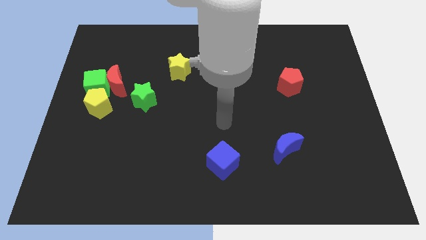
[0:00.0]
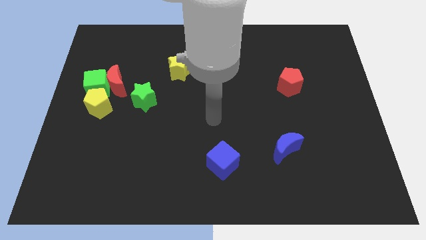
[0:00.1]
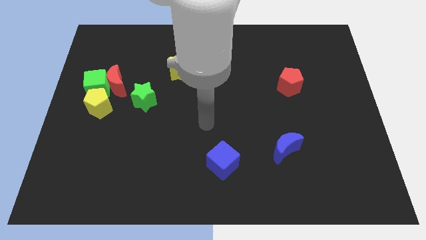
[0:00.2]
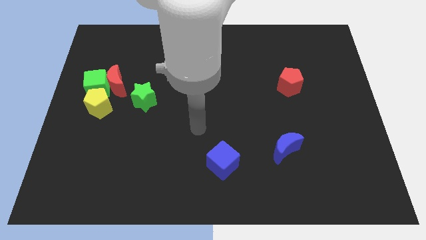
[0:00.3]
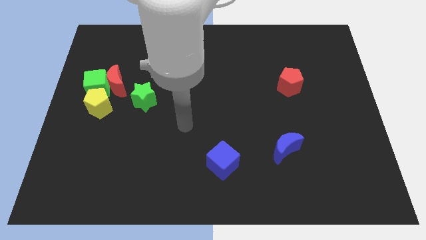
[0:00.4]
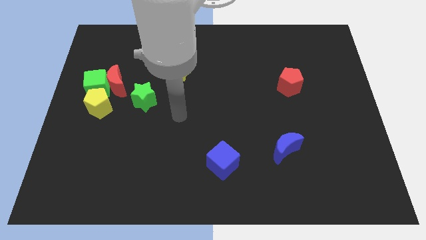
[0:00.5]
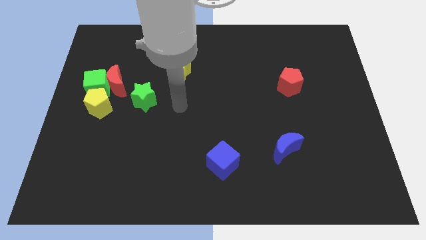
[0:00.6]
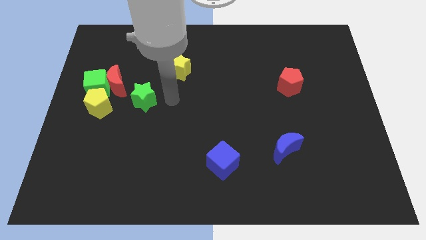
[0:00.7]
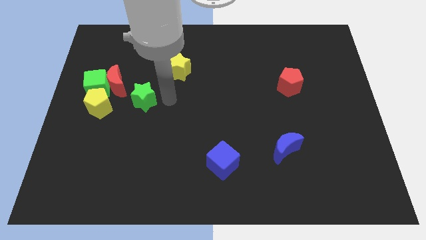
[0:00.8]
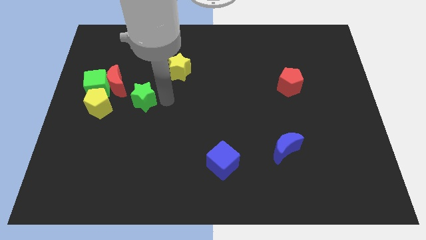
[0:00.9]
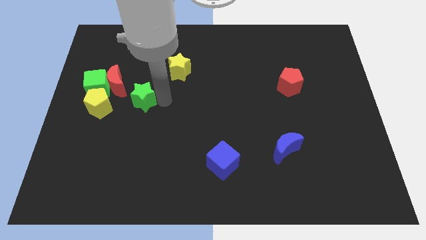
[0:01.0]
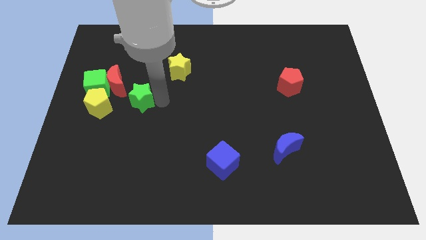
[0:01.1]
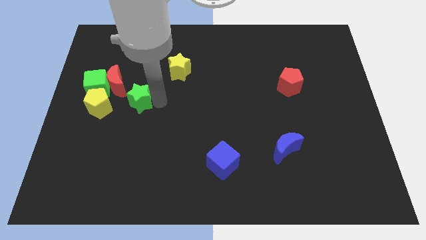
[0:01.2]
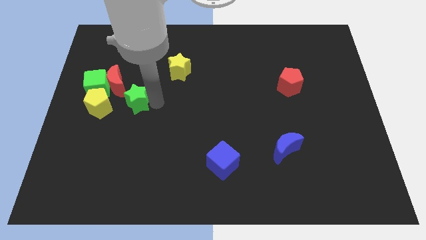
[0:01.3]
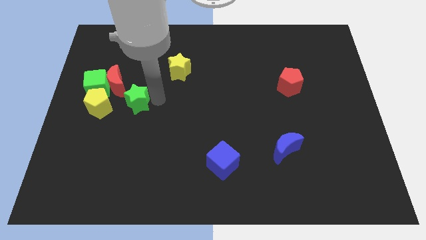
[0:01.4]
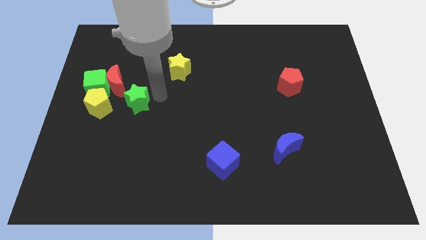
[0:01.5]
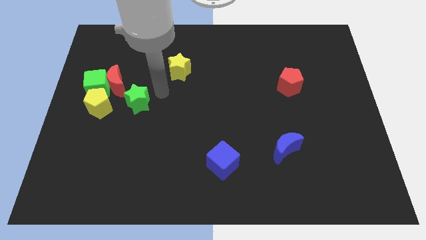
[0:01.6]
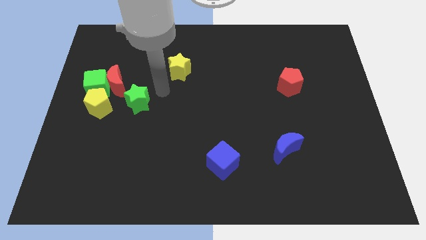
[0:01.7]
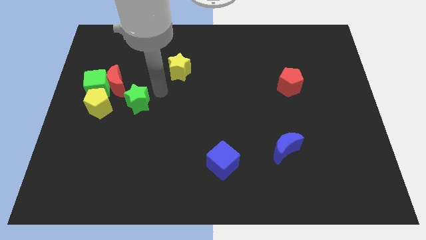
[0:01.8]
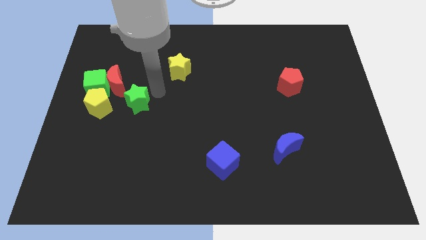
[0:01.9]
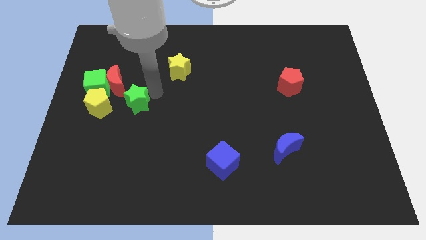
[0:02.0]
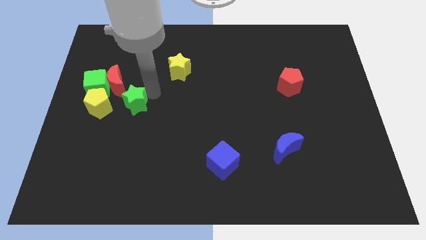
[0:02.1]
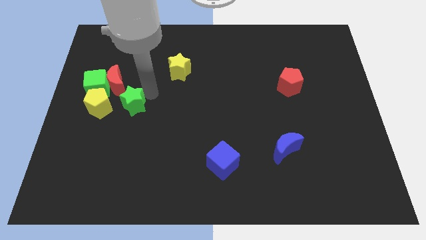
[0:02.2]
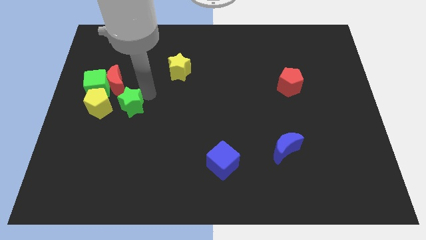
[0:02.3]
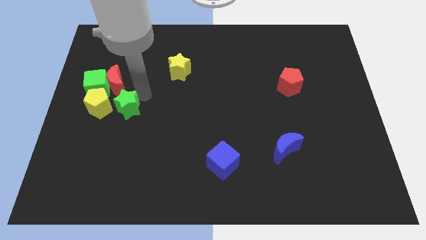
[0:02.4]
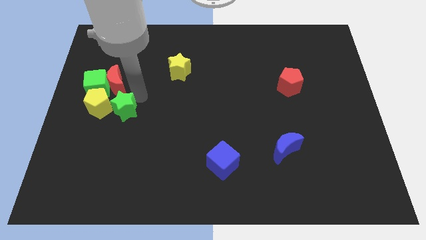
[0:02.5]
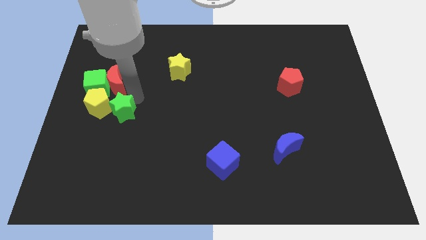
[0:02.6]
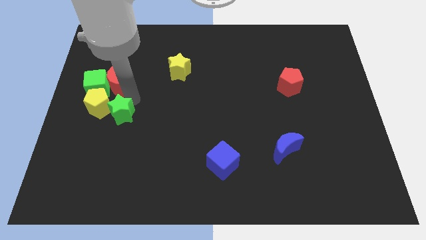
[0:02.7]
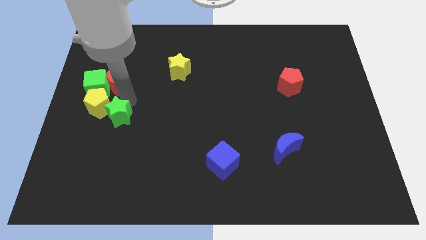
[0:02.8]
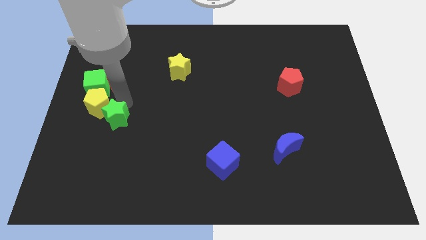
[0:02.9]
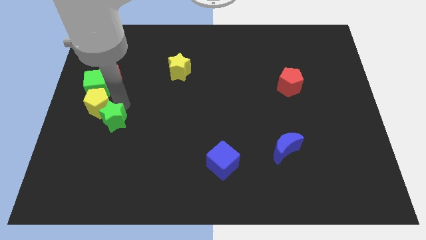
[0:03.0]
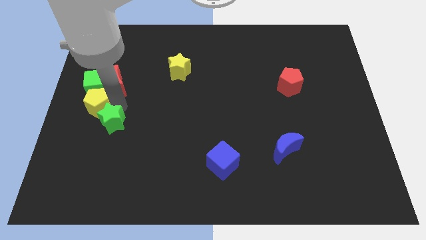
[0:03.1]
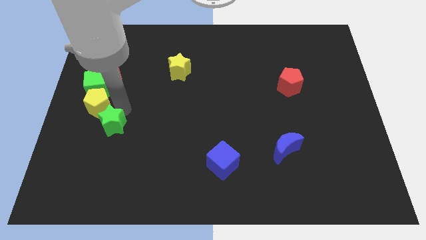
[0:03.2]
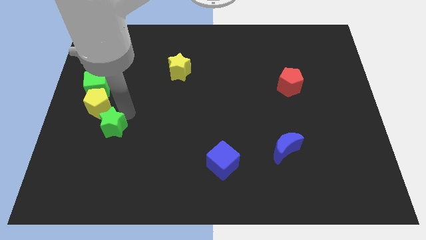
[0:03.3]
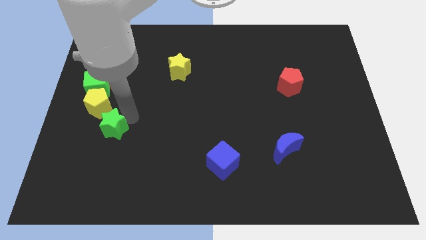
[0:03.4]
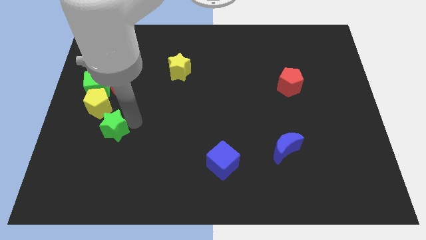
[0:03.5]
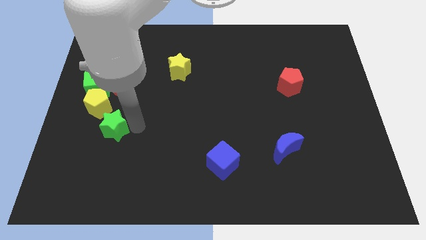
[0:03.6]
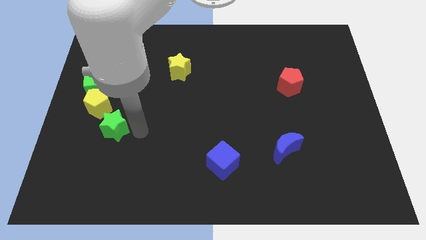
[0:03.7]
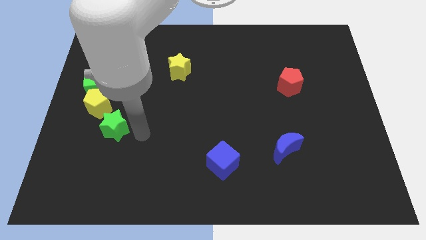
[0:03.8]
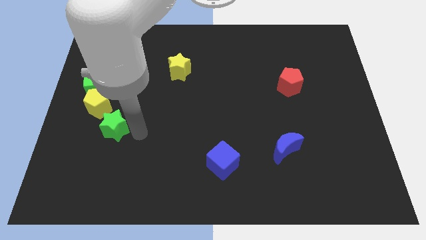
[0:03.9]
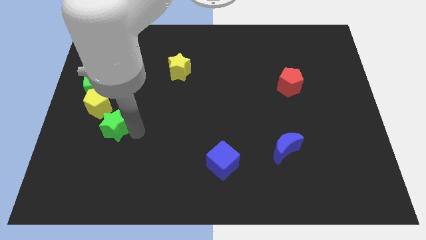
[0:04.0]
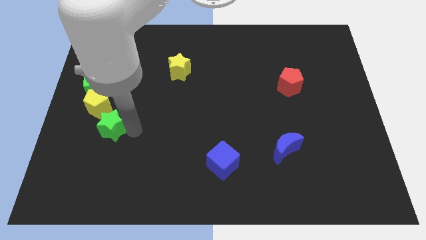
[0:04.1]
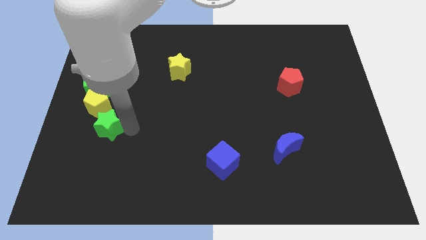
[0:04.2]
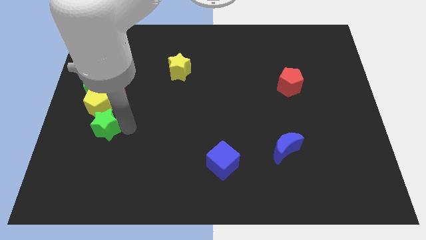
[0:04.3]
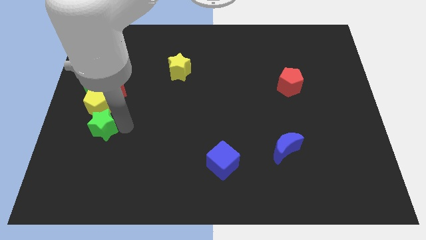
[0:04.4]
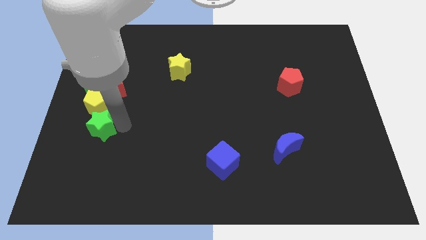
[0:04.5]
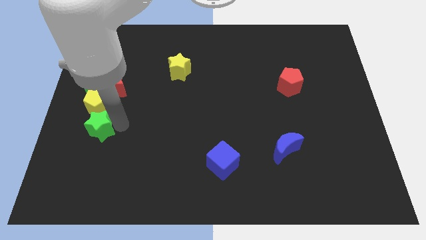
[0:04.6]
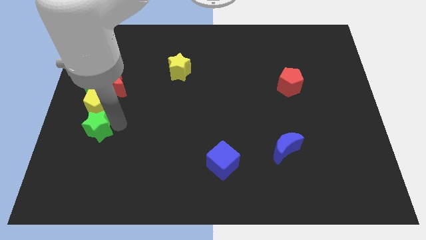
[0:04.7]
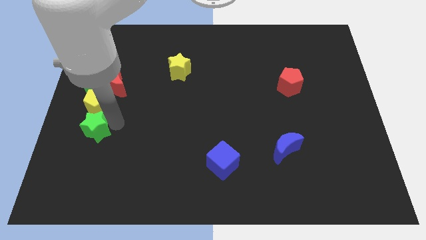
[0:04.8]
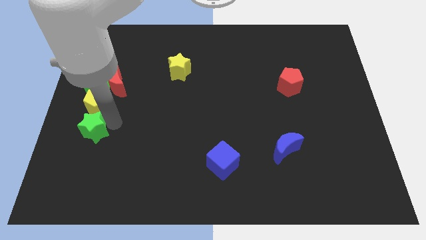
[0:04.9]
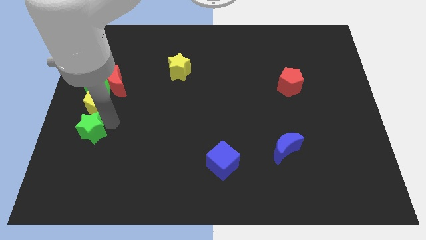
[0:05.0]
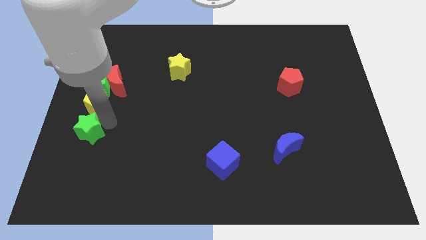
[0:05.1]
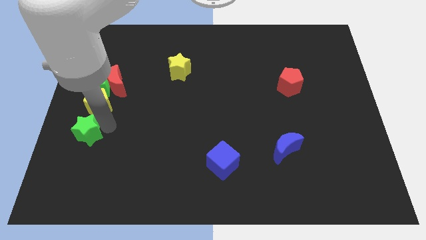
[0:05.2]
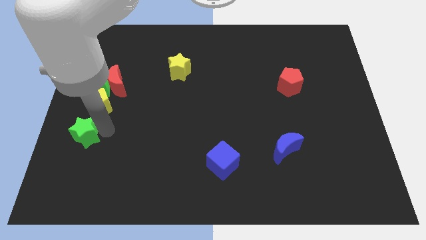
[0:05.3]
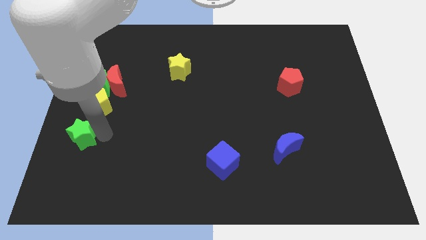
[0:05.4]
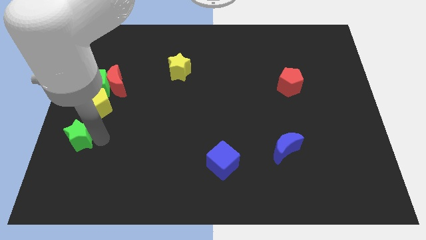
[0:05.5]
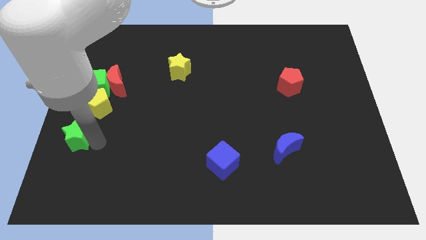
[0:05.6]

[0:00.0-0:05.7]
push the green star to the left side of the board
